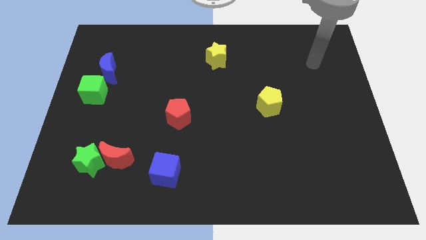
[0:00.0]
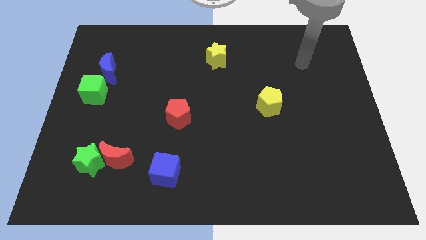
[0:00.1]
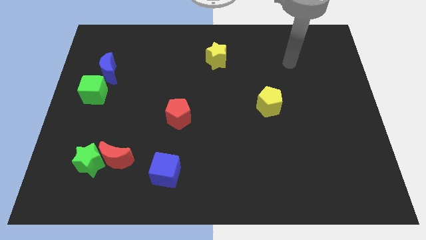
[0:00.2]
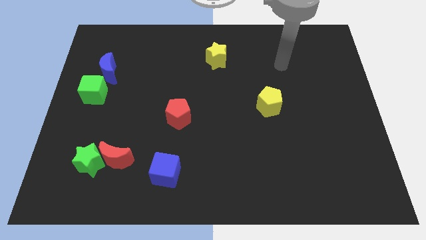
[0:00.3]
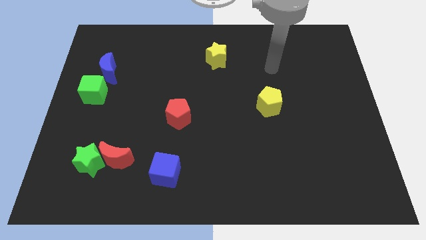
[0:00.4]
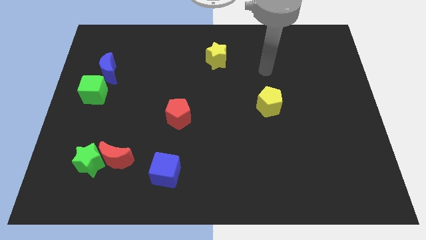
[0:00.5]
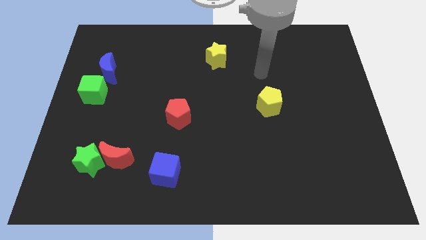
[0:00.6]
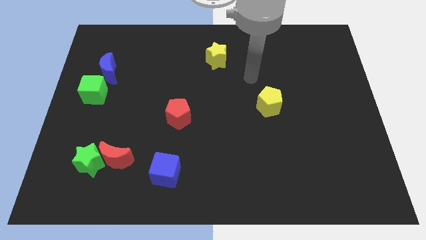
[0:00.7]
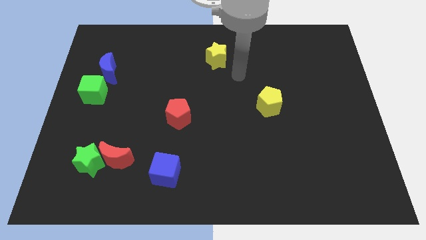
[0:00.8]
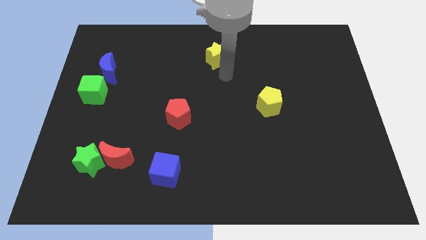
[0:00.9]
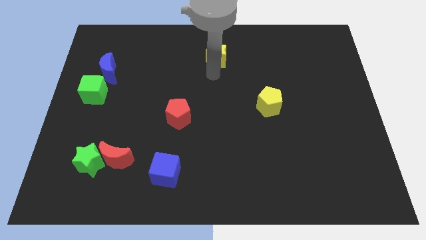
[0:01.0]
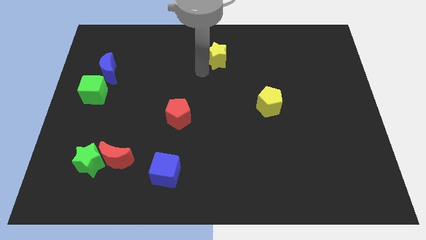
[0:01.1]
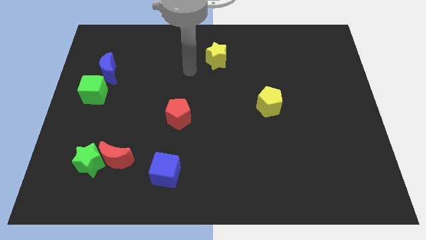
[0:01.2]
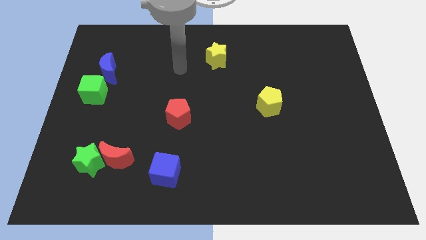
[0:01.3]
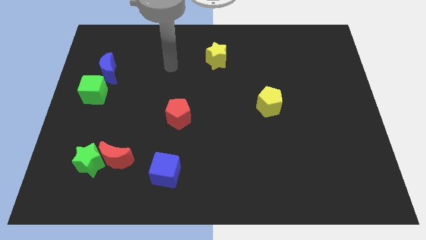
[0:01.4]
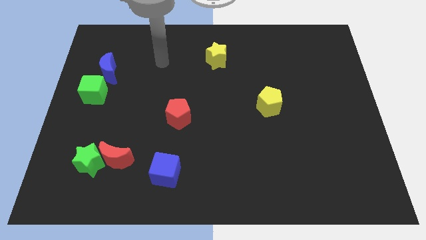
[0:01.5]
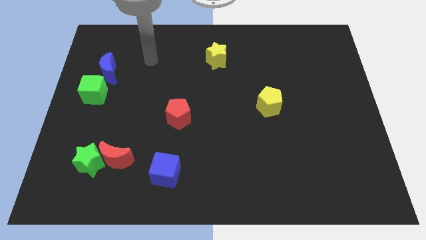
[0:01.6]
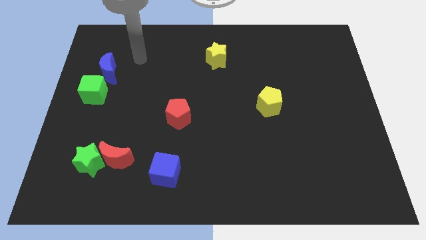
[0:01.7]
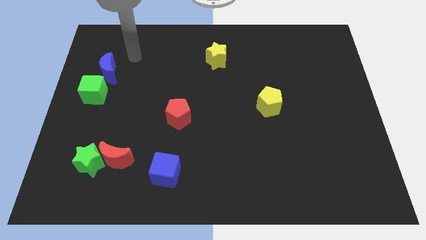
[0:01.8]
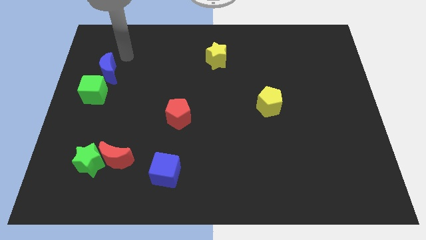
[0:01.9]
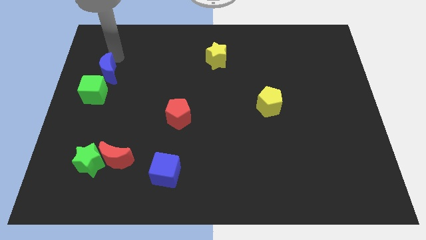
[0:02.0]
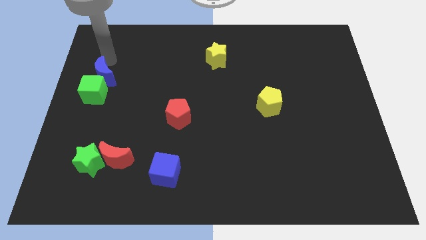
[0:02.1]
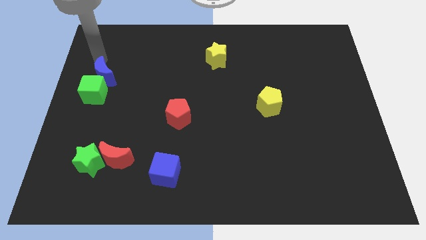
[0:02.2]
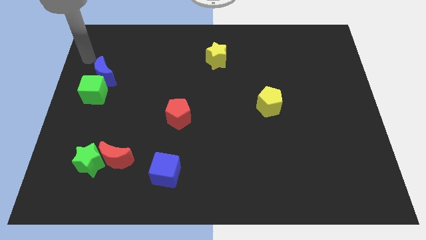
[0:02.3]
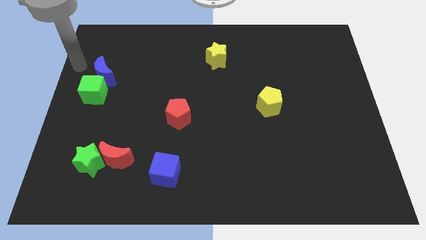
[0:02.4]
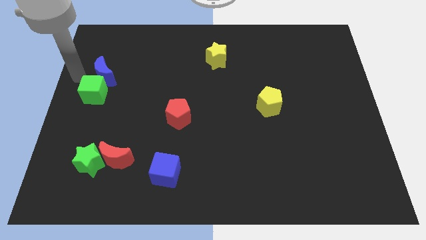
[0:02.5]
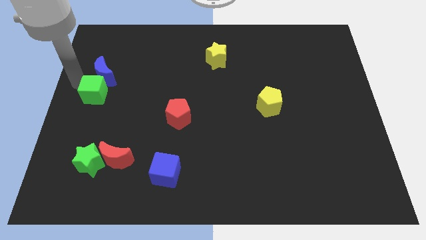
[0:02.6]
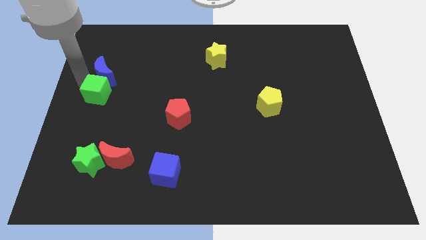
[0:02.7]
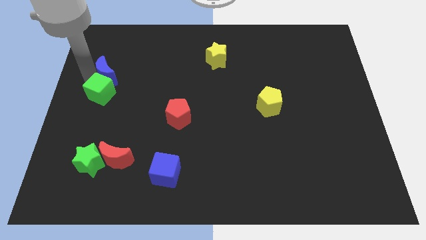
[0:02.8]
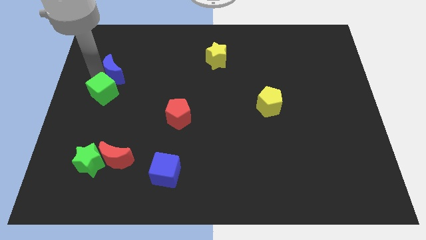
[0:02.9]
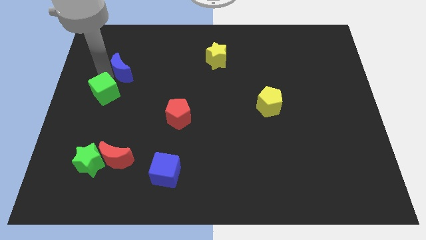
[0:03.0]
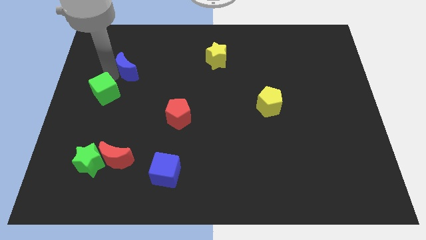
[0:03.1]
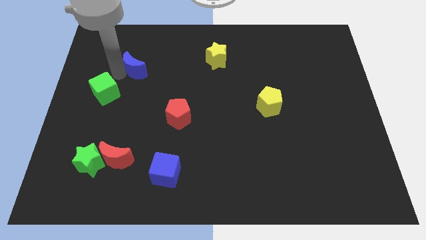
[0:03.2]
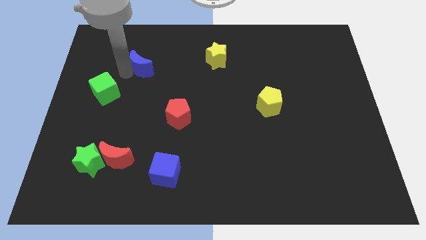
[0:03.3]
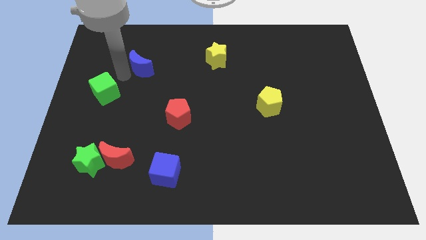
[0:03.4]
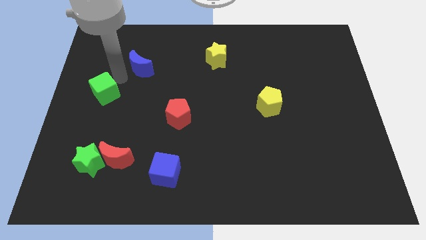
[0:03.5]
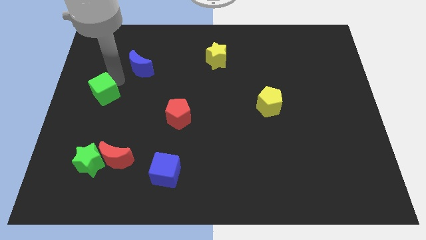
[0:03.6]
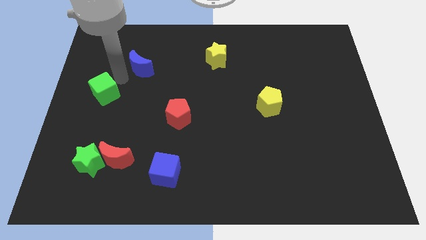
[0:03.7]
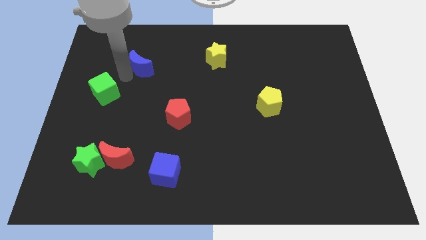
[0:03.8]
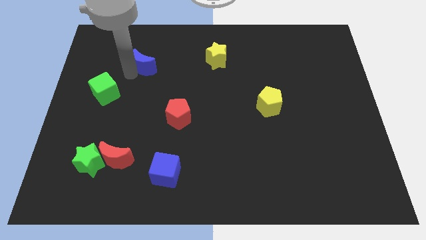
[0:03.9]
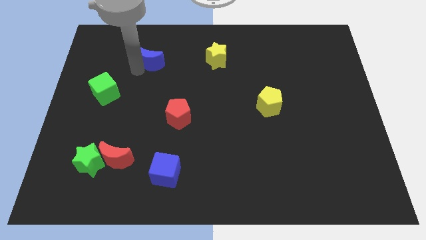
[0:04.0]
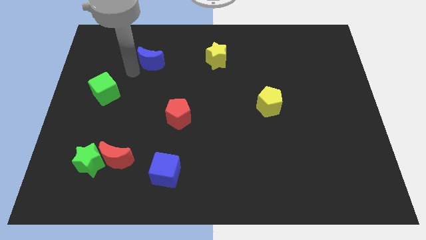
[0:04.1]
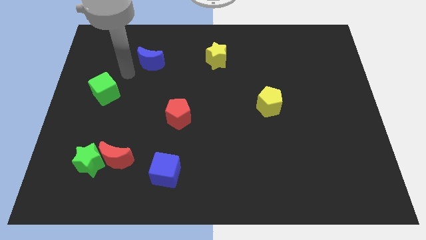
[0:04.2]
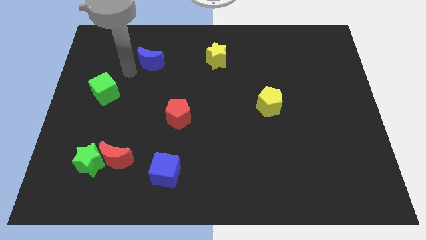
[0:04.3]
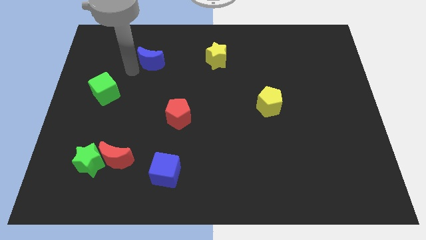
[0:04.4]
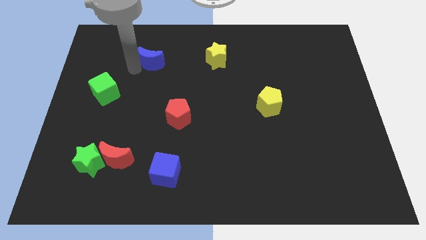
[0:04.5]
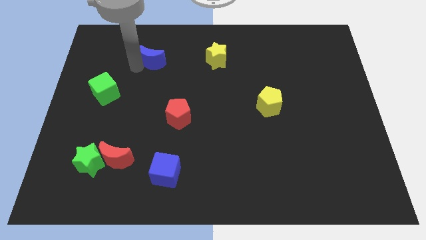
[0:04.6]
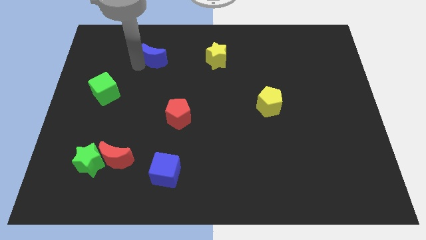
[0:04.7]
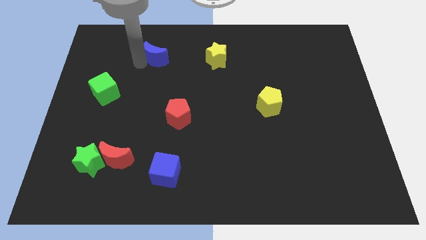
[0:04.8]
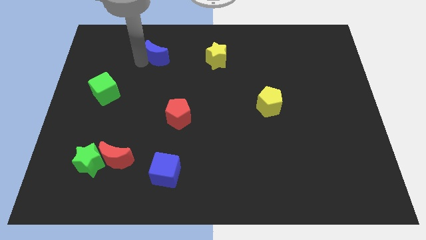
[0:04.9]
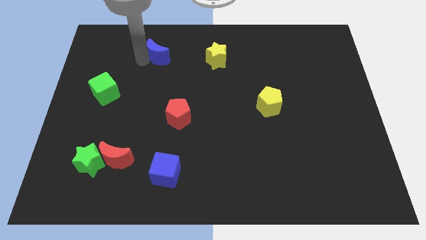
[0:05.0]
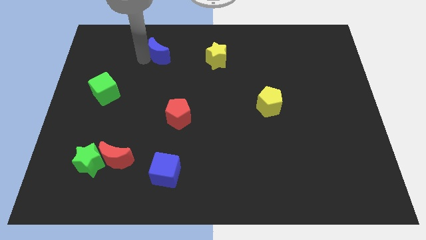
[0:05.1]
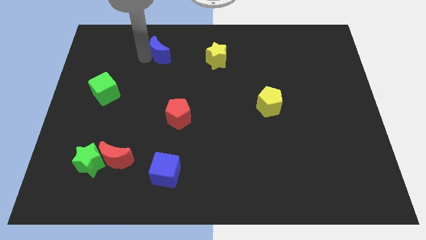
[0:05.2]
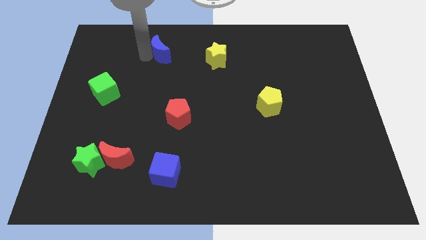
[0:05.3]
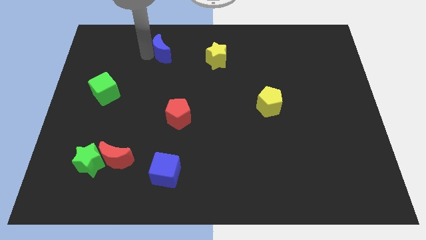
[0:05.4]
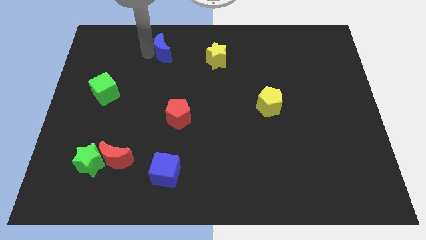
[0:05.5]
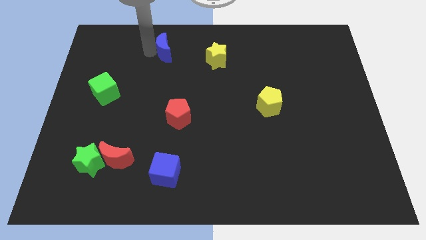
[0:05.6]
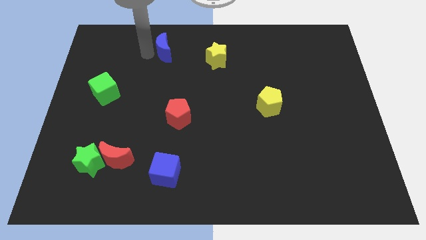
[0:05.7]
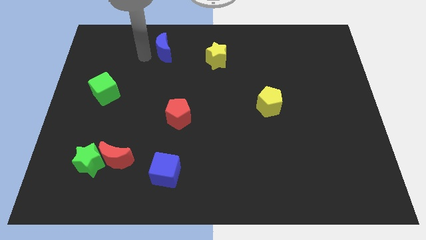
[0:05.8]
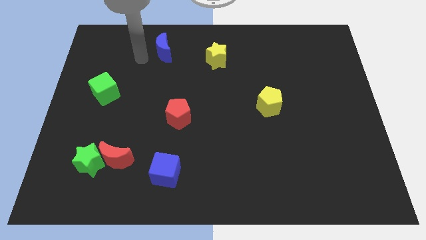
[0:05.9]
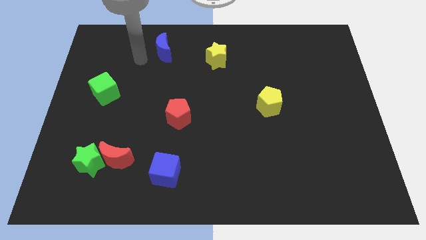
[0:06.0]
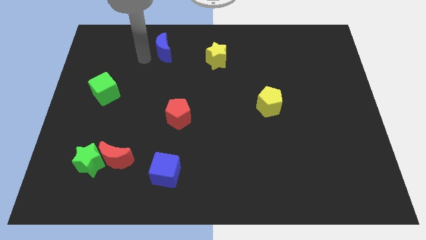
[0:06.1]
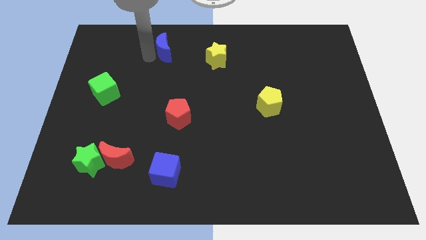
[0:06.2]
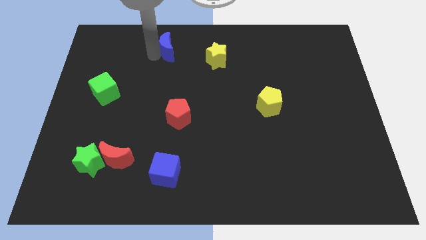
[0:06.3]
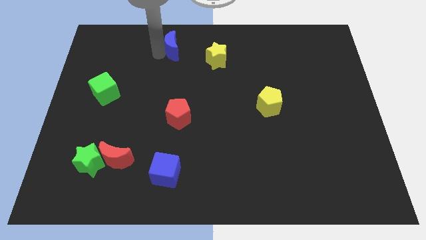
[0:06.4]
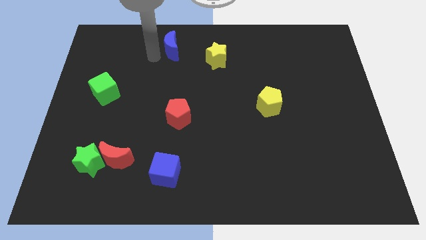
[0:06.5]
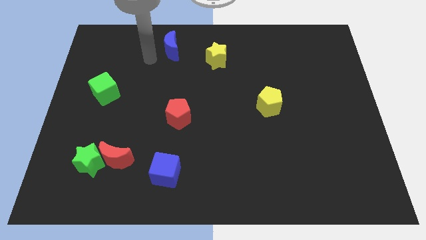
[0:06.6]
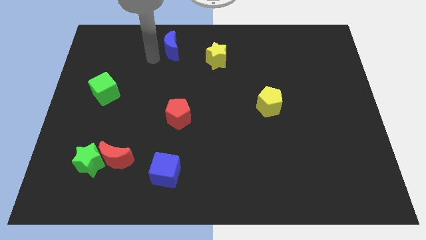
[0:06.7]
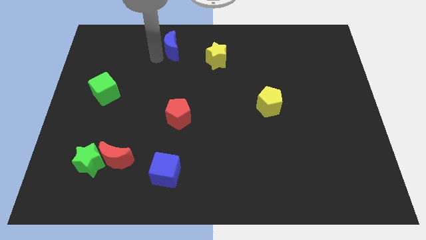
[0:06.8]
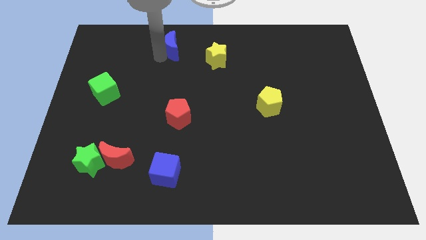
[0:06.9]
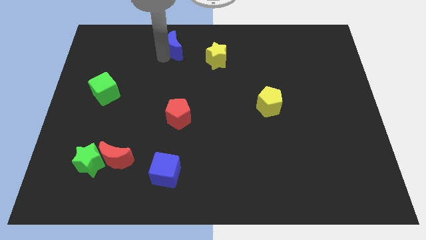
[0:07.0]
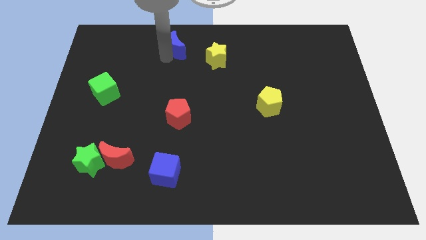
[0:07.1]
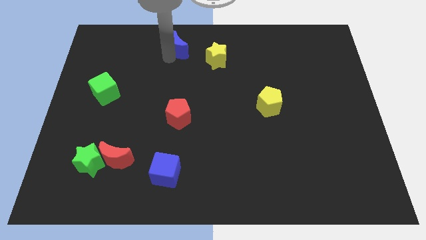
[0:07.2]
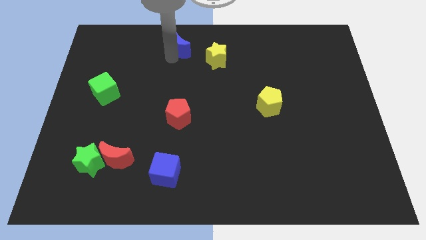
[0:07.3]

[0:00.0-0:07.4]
put the blue moon to the top side
